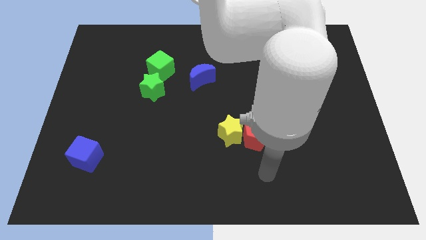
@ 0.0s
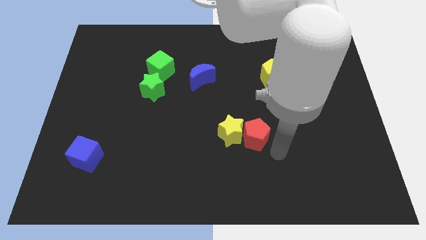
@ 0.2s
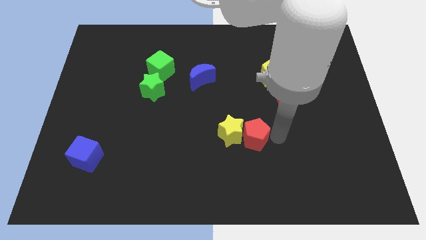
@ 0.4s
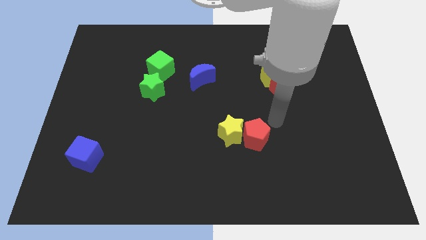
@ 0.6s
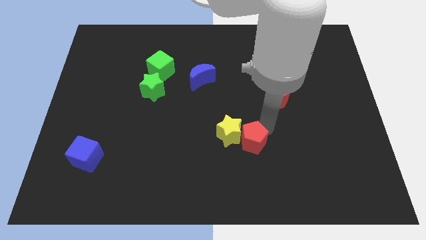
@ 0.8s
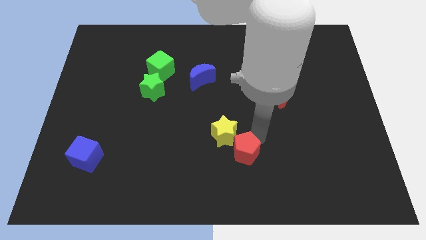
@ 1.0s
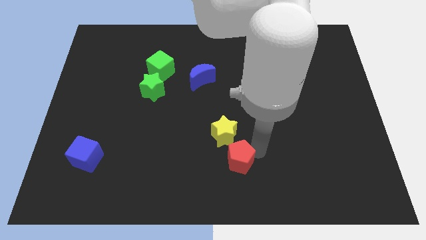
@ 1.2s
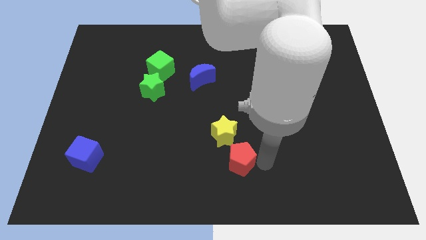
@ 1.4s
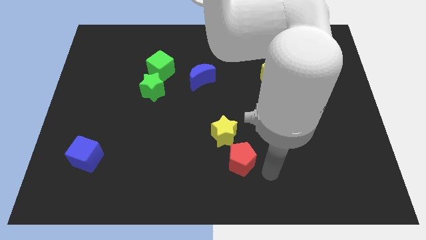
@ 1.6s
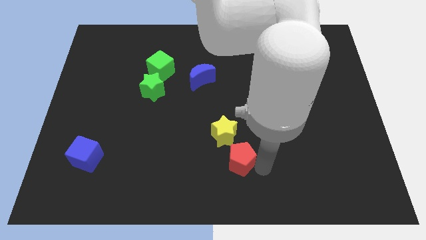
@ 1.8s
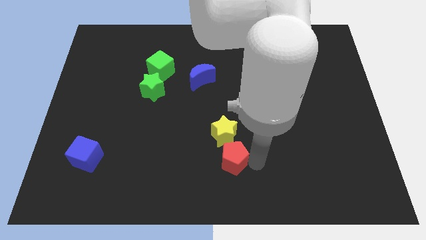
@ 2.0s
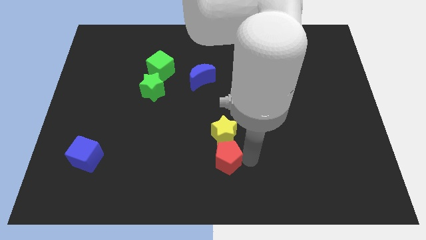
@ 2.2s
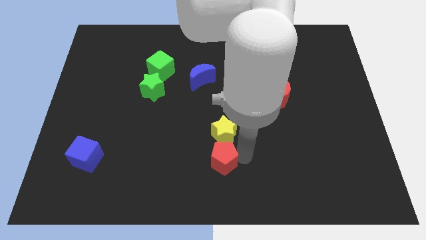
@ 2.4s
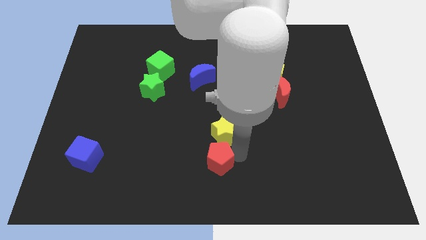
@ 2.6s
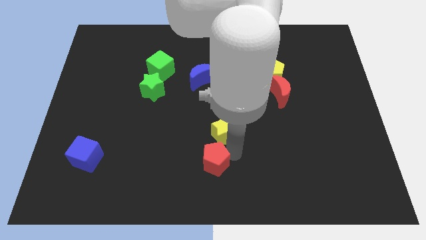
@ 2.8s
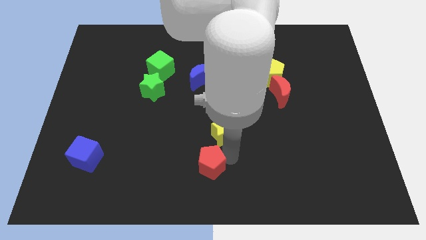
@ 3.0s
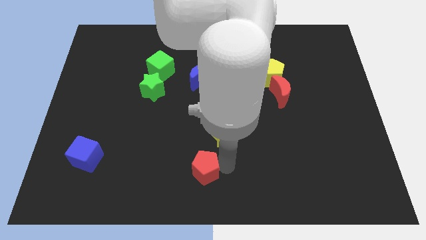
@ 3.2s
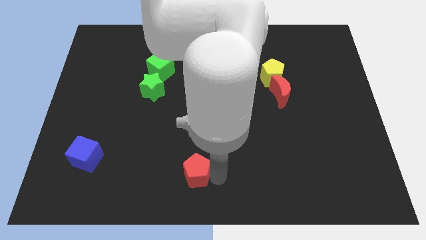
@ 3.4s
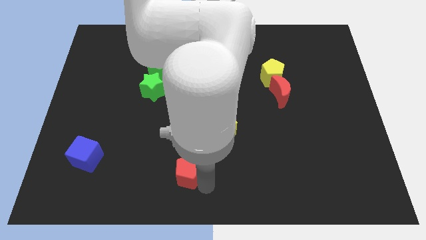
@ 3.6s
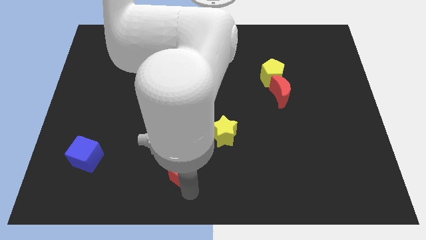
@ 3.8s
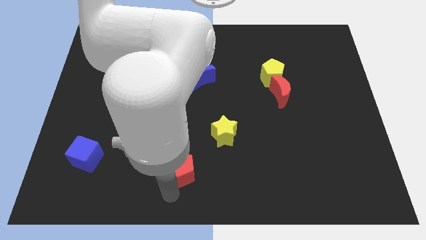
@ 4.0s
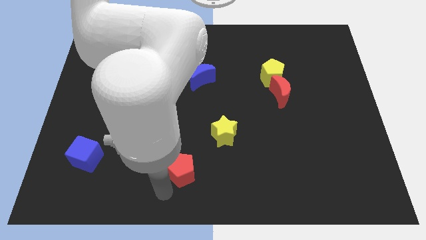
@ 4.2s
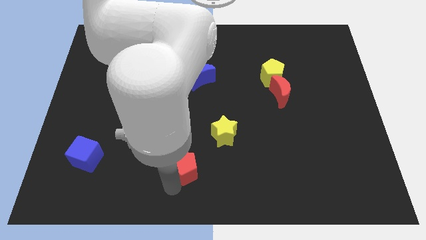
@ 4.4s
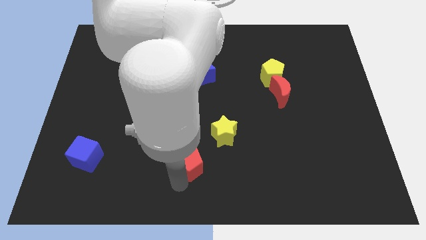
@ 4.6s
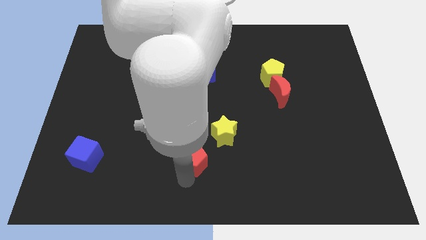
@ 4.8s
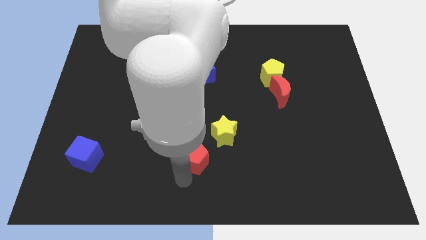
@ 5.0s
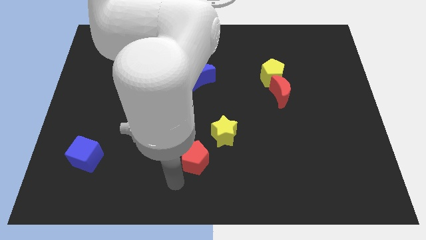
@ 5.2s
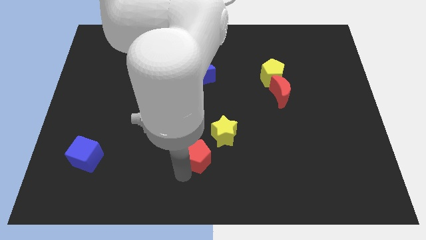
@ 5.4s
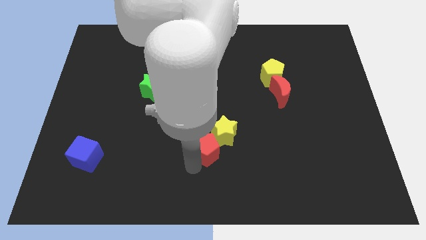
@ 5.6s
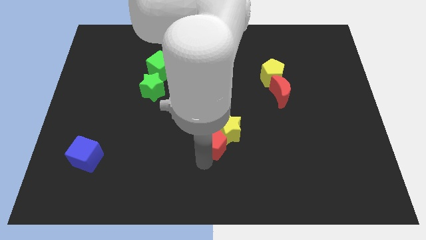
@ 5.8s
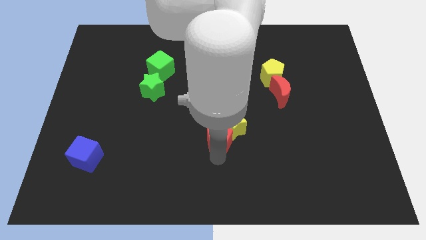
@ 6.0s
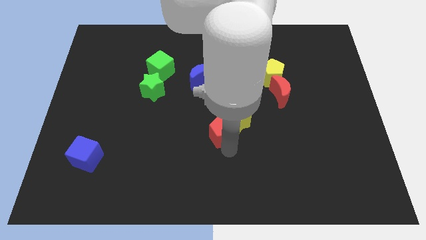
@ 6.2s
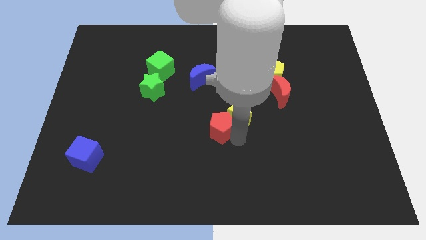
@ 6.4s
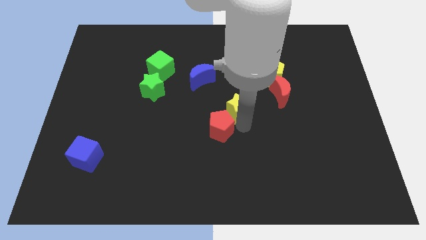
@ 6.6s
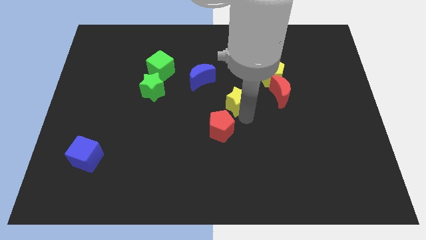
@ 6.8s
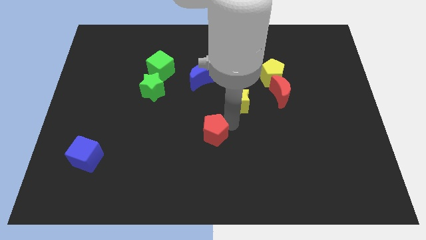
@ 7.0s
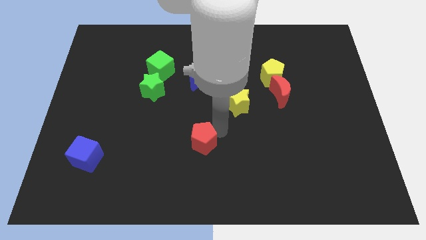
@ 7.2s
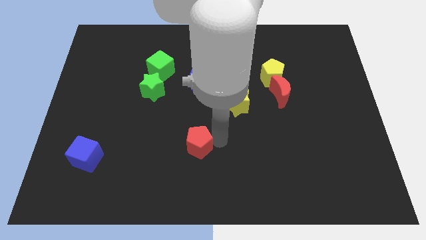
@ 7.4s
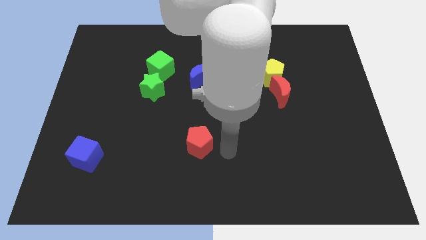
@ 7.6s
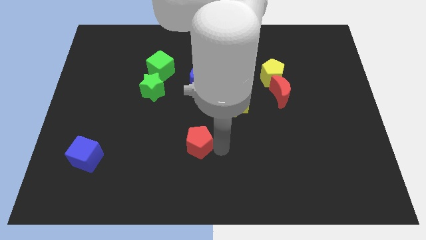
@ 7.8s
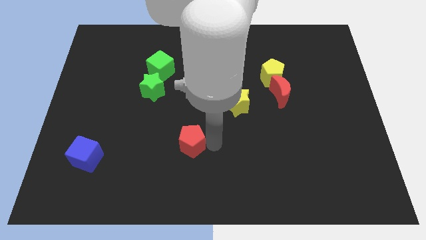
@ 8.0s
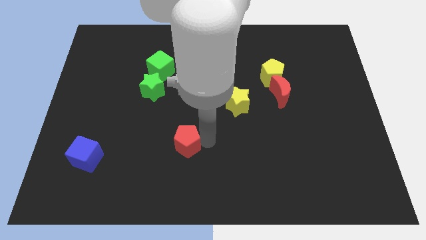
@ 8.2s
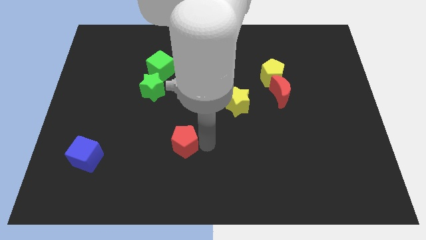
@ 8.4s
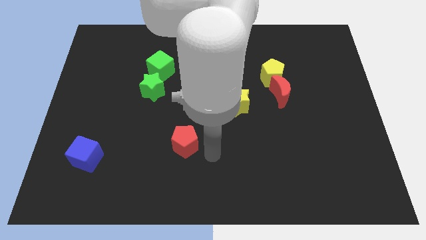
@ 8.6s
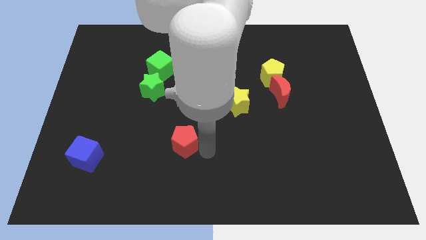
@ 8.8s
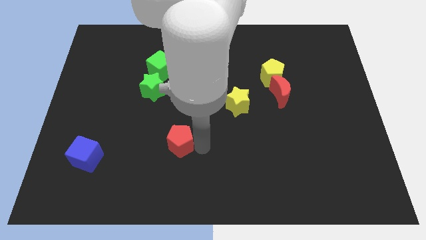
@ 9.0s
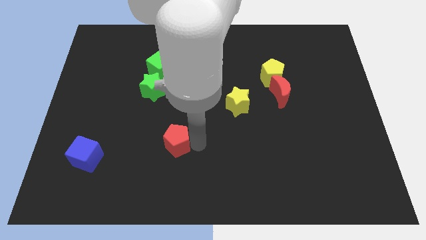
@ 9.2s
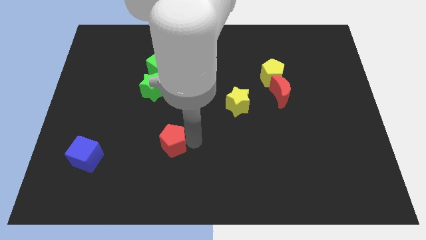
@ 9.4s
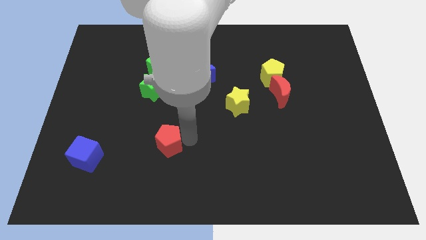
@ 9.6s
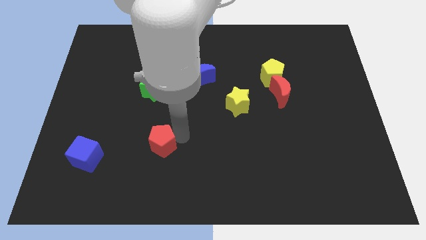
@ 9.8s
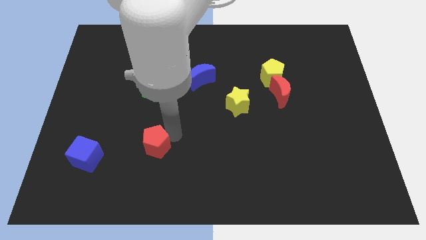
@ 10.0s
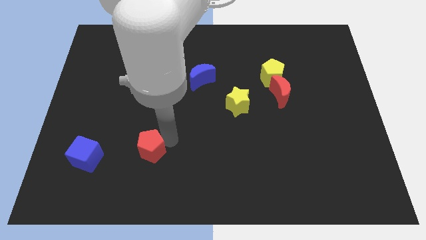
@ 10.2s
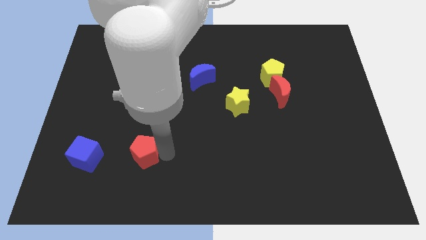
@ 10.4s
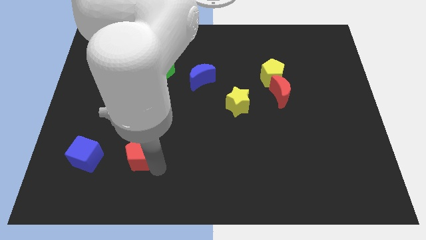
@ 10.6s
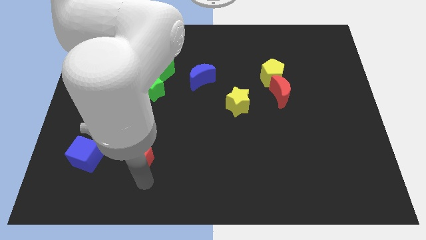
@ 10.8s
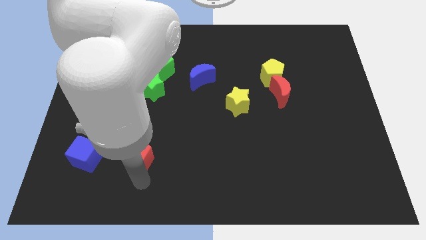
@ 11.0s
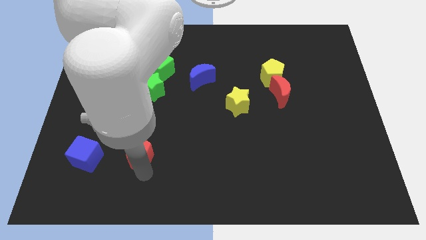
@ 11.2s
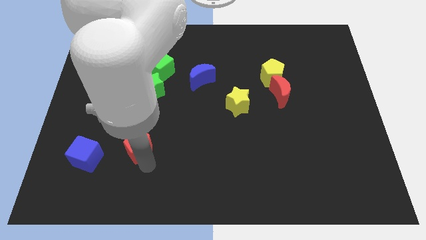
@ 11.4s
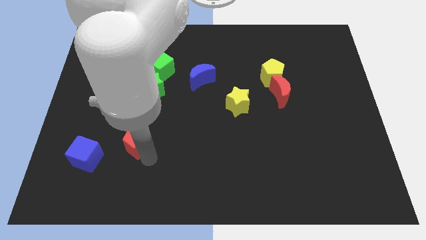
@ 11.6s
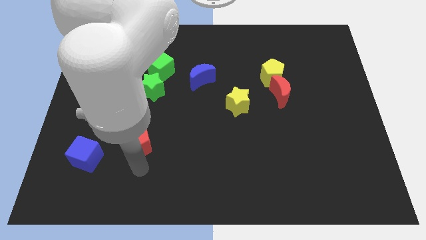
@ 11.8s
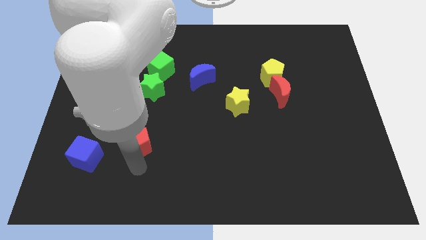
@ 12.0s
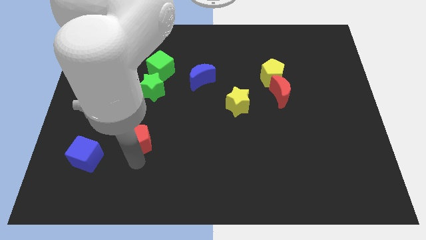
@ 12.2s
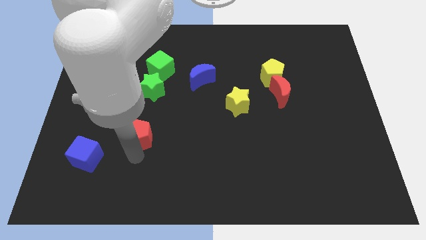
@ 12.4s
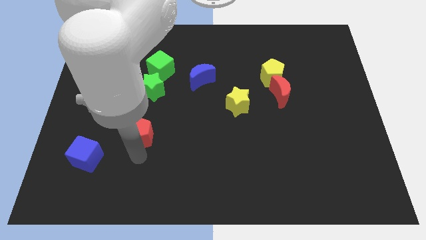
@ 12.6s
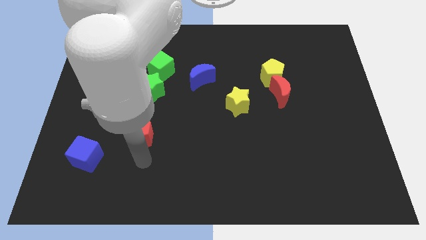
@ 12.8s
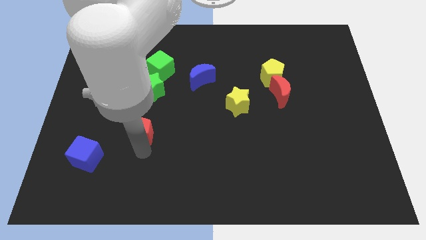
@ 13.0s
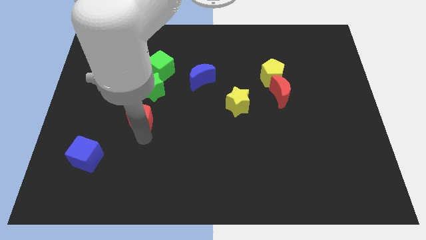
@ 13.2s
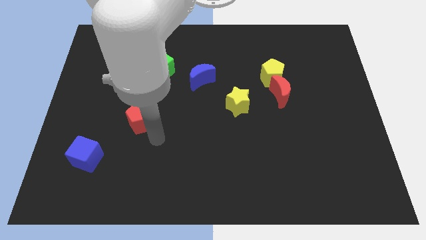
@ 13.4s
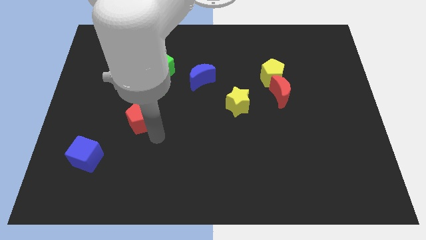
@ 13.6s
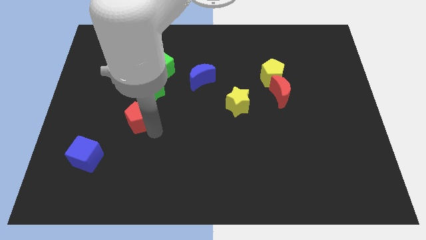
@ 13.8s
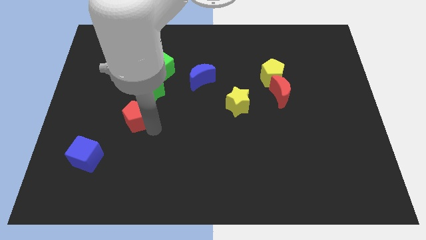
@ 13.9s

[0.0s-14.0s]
push the red pentagon to the bottom left side of the green star

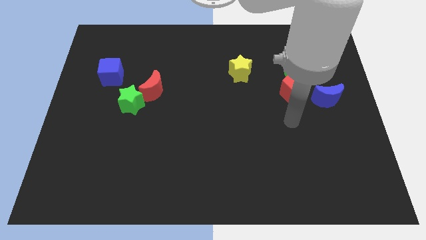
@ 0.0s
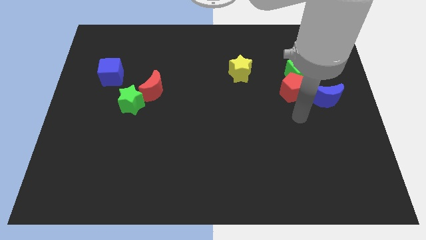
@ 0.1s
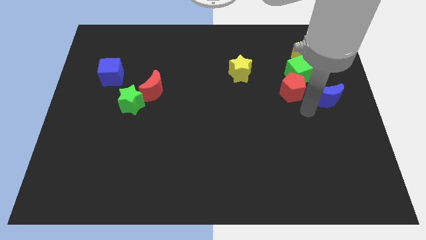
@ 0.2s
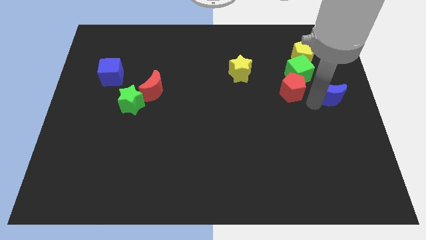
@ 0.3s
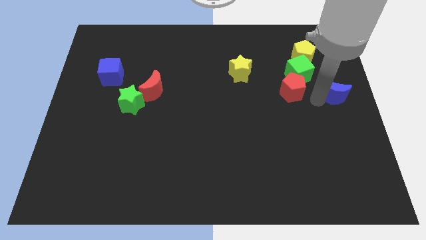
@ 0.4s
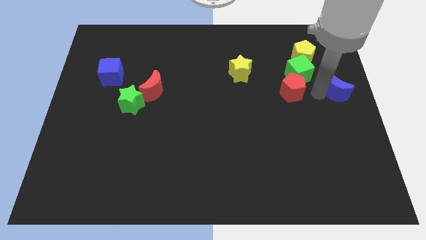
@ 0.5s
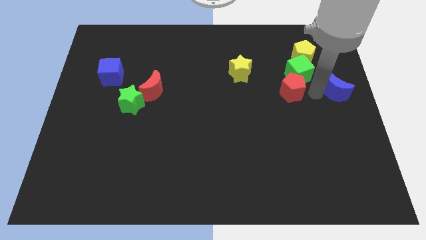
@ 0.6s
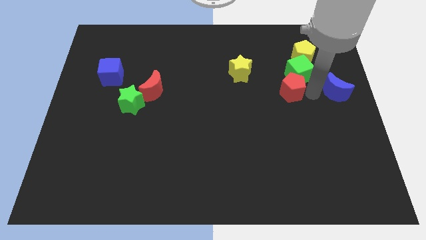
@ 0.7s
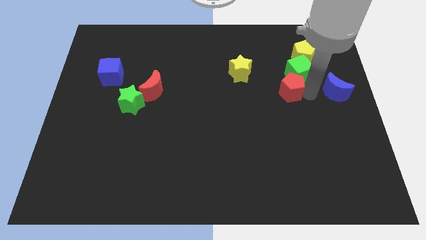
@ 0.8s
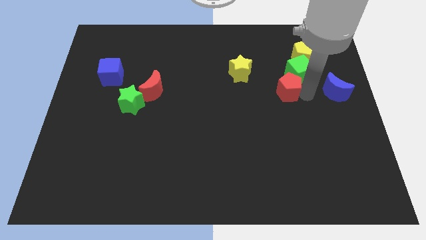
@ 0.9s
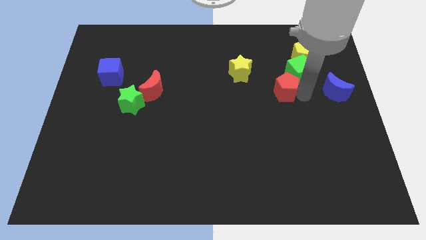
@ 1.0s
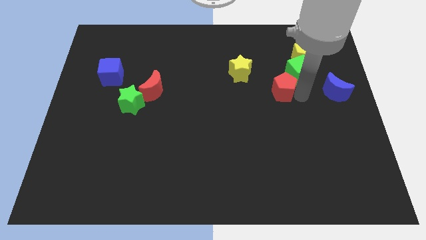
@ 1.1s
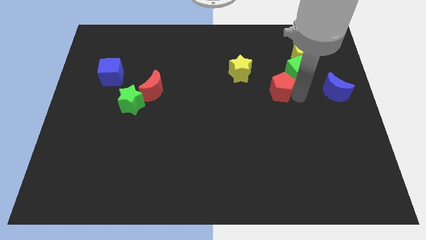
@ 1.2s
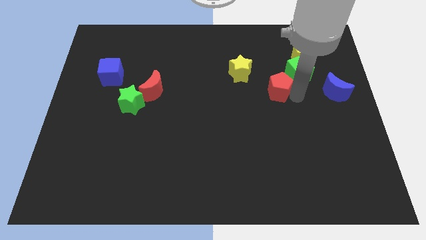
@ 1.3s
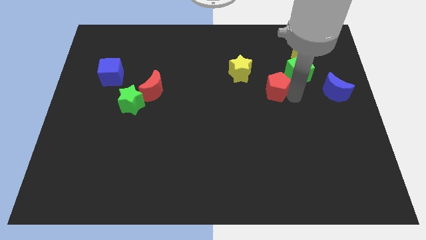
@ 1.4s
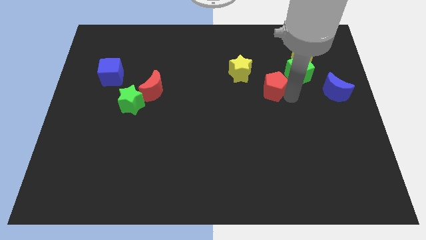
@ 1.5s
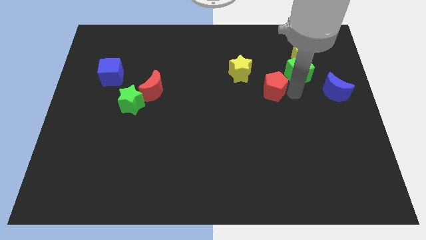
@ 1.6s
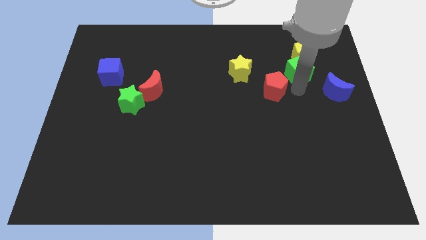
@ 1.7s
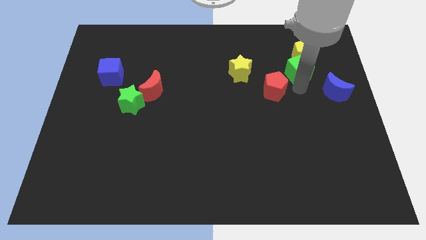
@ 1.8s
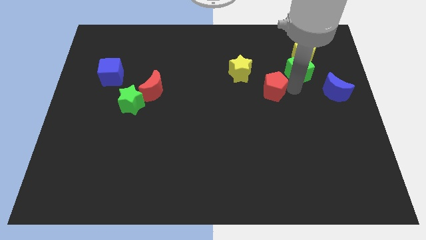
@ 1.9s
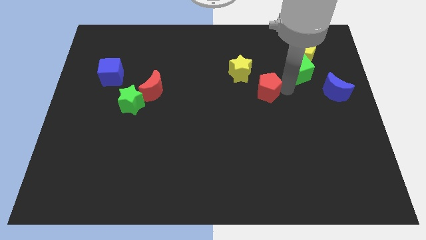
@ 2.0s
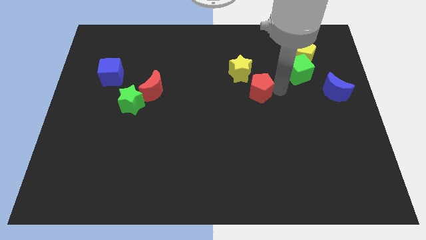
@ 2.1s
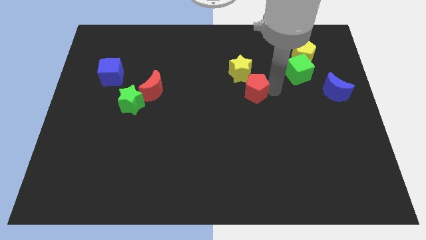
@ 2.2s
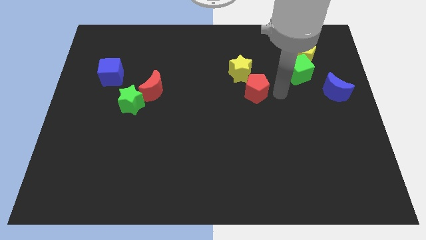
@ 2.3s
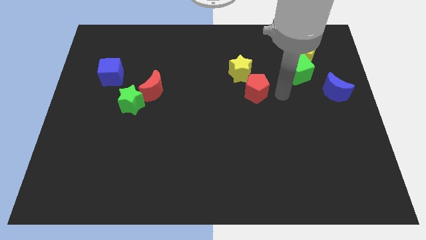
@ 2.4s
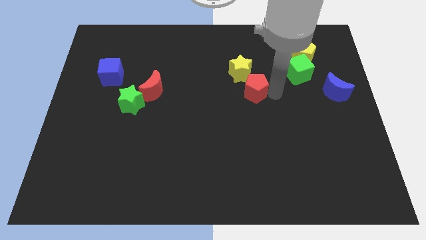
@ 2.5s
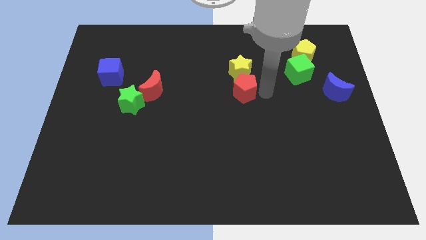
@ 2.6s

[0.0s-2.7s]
put the red pentagon to the bottom left side of the yellow star
